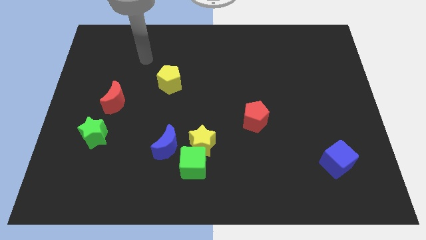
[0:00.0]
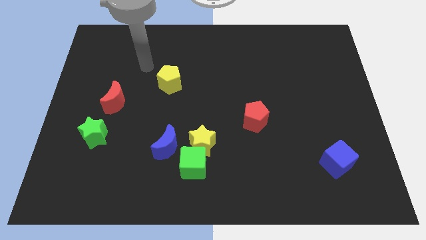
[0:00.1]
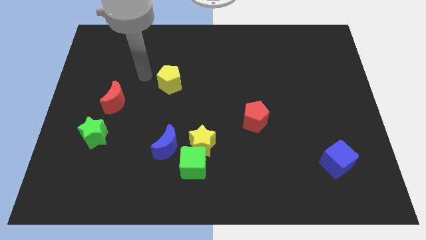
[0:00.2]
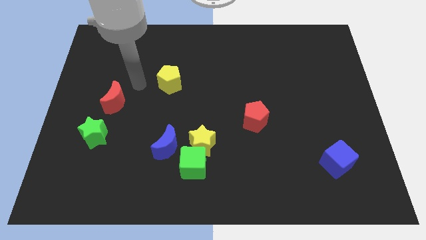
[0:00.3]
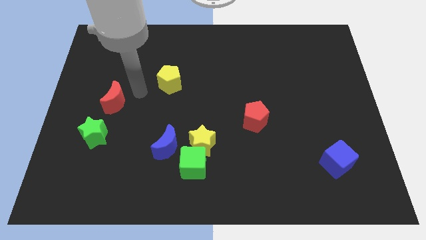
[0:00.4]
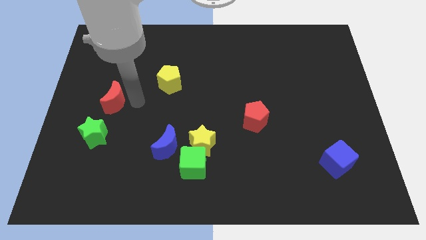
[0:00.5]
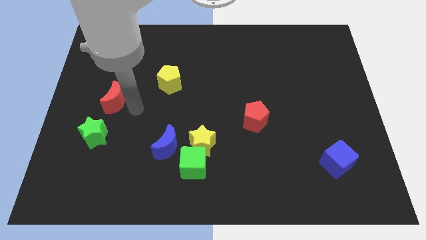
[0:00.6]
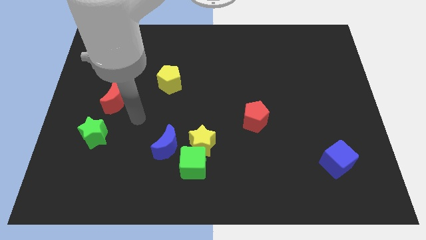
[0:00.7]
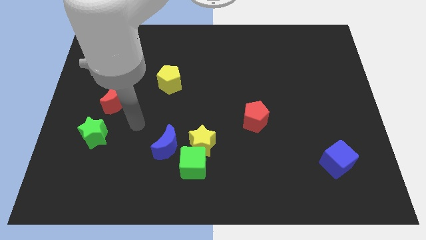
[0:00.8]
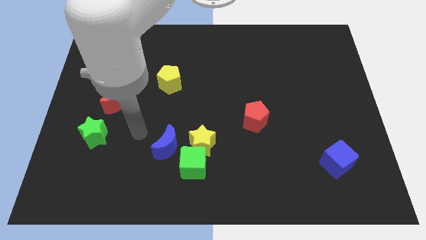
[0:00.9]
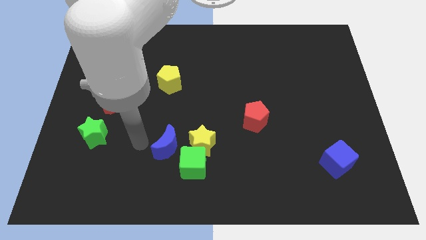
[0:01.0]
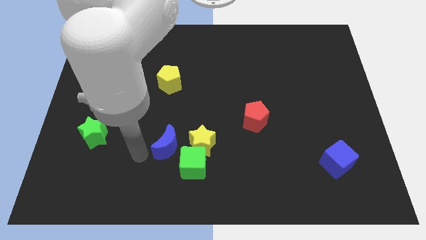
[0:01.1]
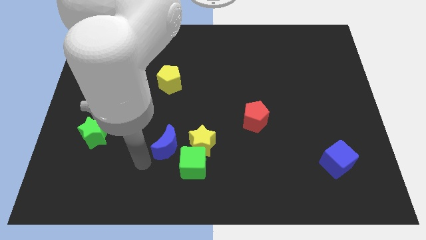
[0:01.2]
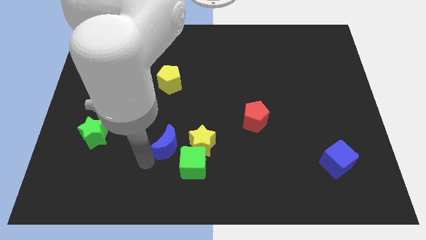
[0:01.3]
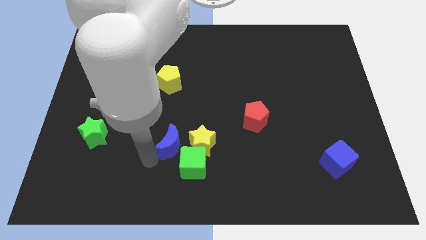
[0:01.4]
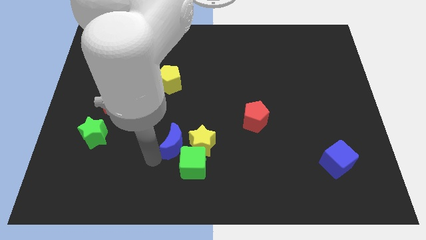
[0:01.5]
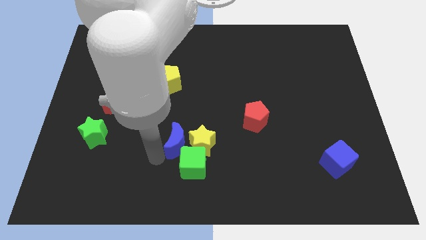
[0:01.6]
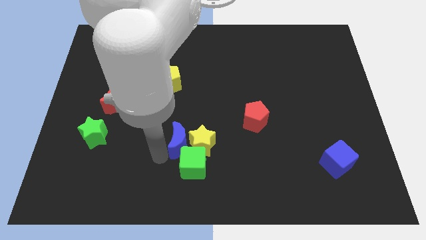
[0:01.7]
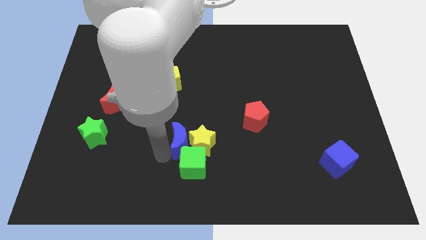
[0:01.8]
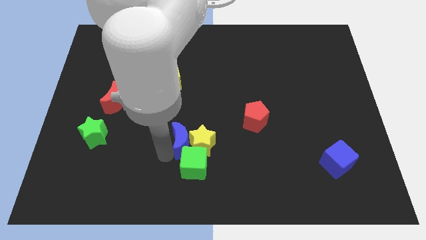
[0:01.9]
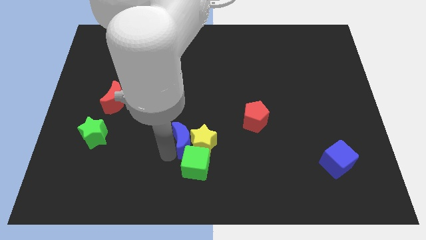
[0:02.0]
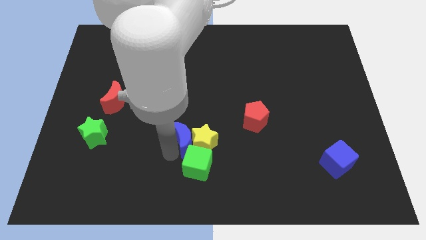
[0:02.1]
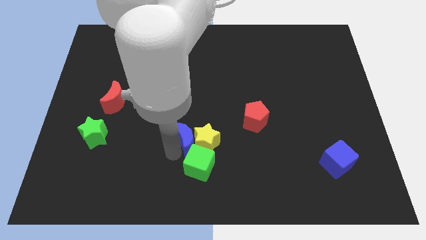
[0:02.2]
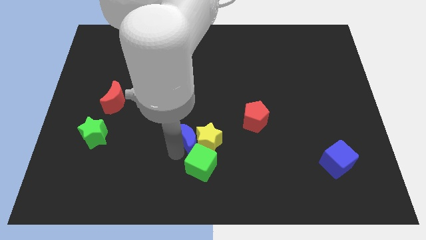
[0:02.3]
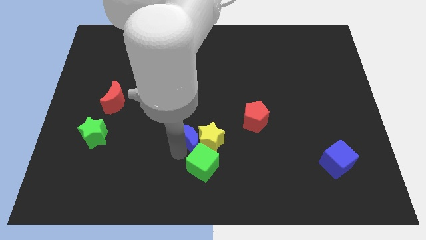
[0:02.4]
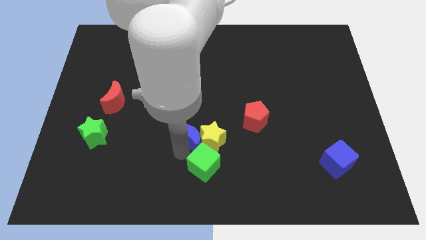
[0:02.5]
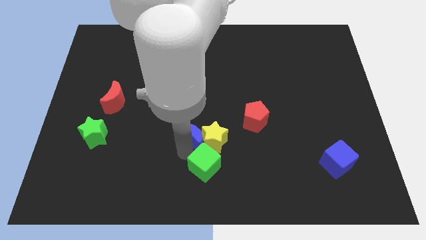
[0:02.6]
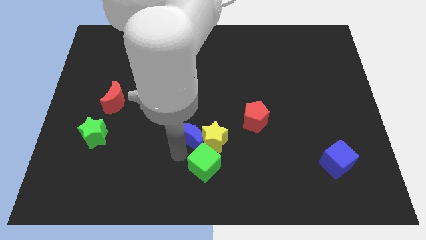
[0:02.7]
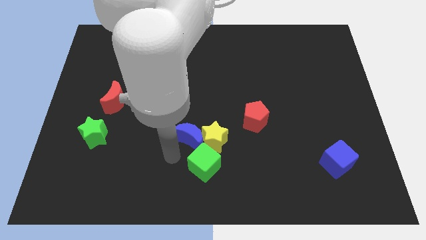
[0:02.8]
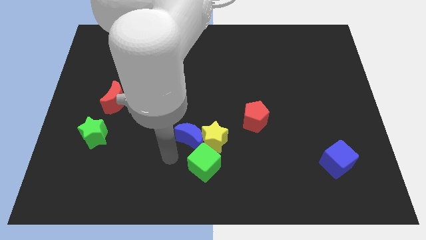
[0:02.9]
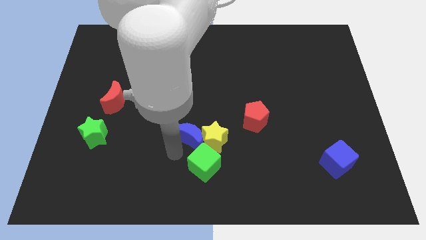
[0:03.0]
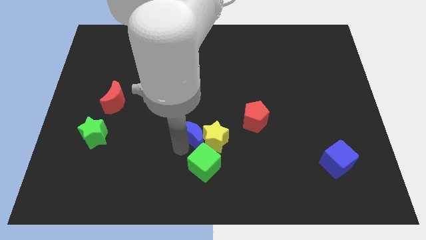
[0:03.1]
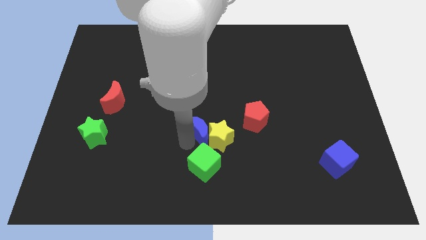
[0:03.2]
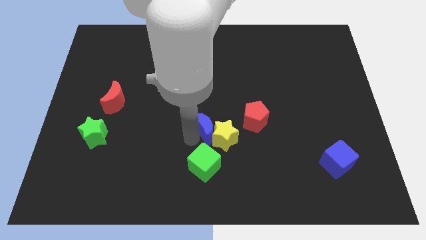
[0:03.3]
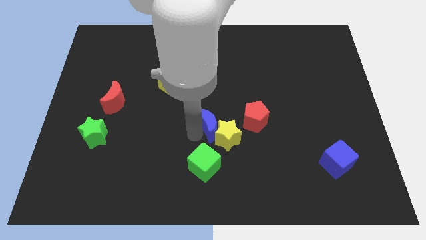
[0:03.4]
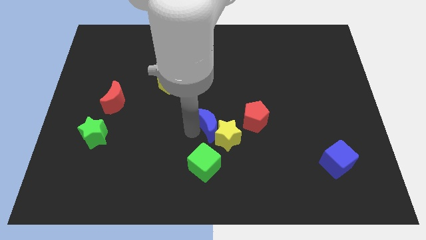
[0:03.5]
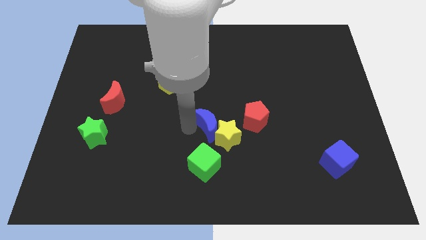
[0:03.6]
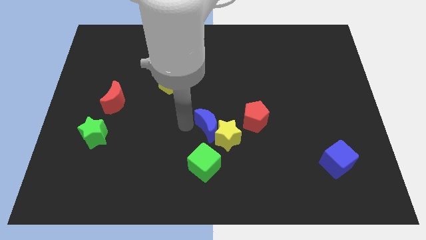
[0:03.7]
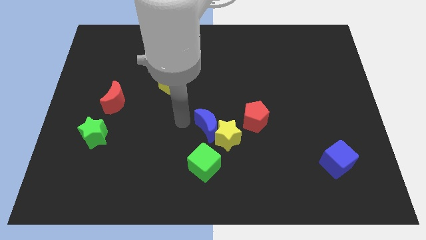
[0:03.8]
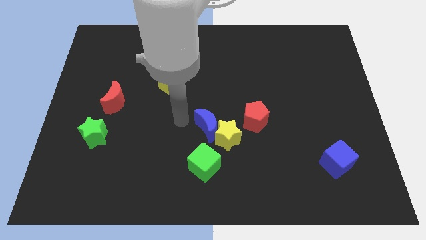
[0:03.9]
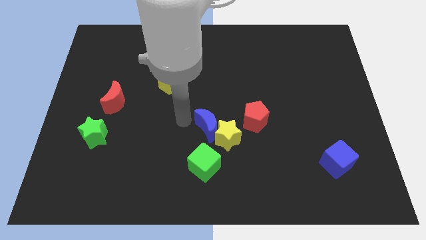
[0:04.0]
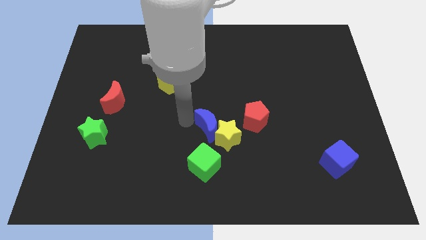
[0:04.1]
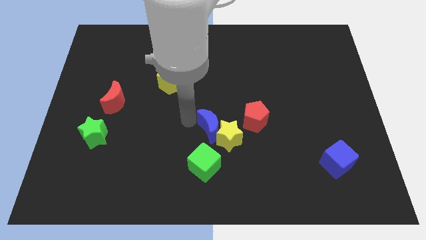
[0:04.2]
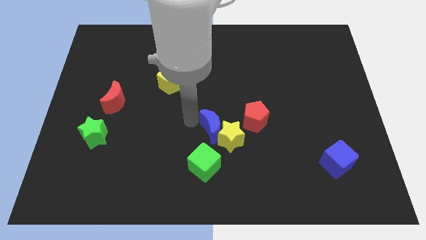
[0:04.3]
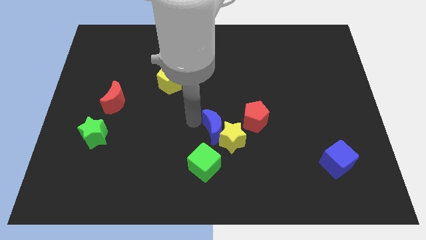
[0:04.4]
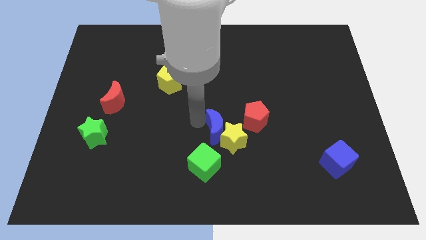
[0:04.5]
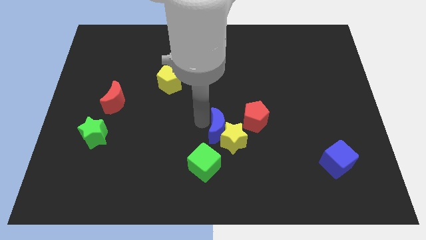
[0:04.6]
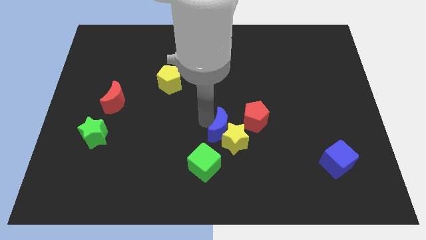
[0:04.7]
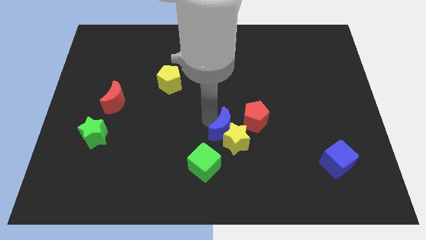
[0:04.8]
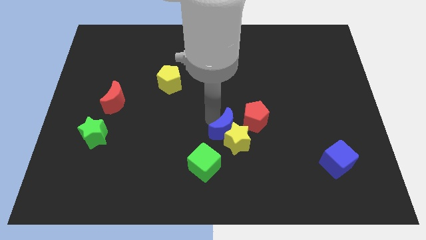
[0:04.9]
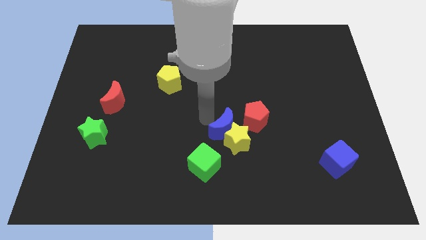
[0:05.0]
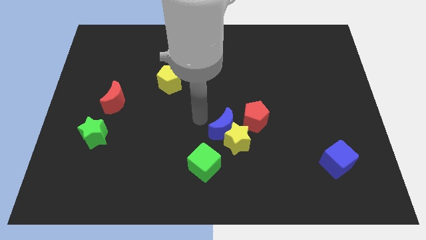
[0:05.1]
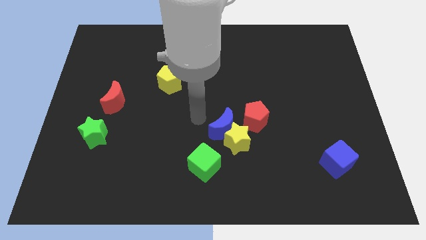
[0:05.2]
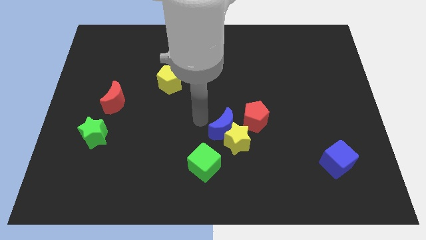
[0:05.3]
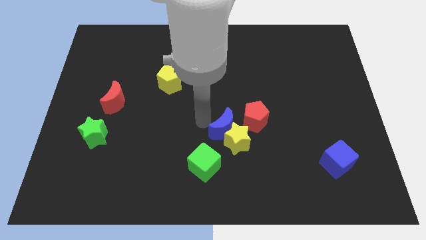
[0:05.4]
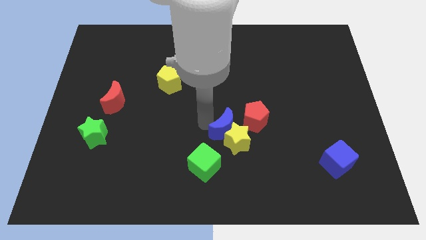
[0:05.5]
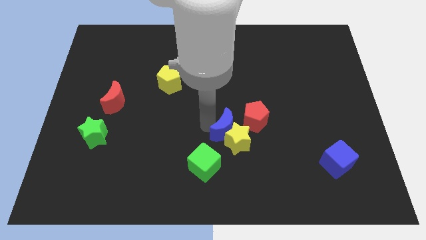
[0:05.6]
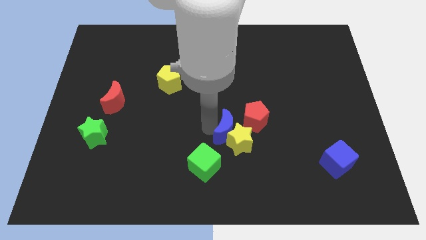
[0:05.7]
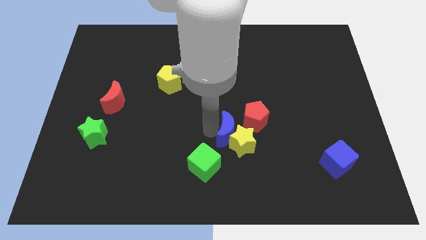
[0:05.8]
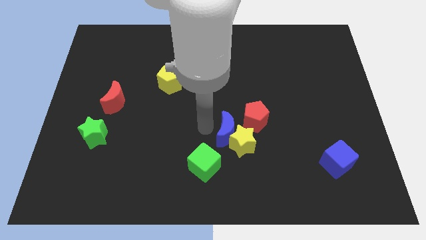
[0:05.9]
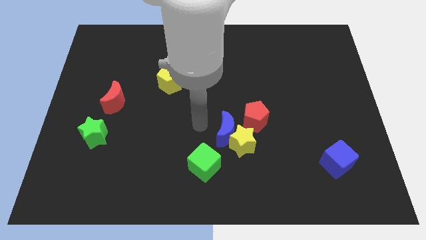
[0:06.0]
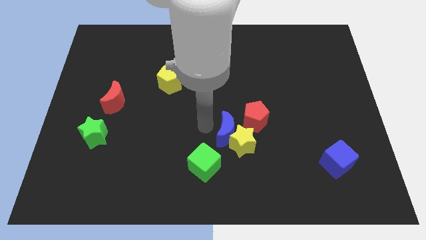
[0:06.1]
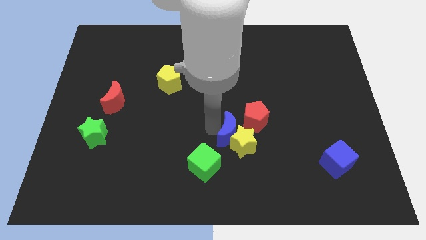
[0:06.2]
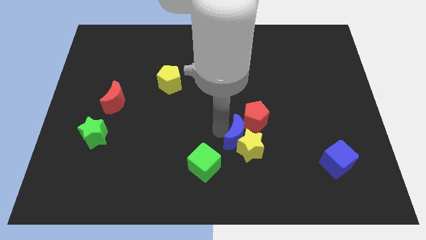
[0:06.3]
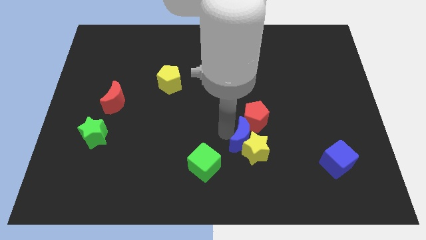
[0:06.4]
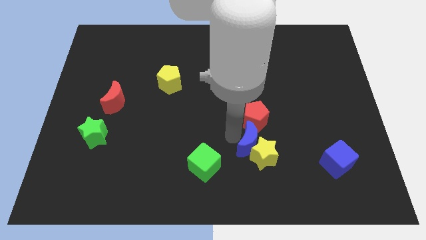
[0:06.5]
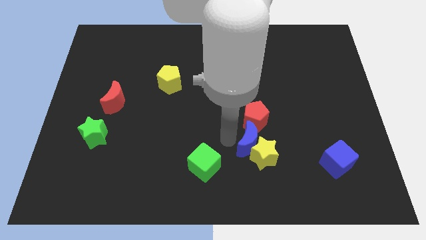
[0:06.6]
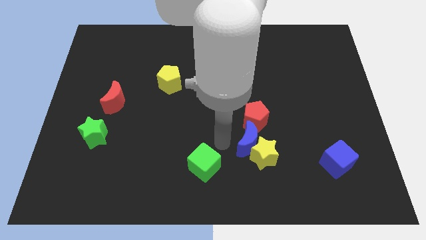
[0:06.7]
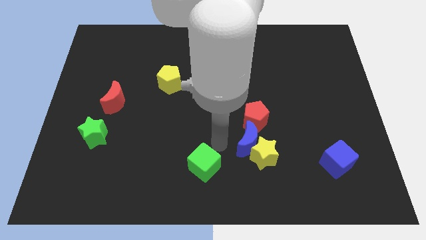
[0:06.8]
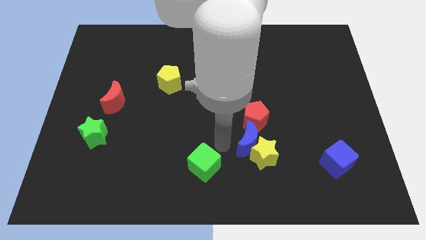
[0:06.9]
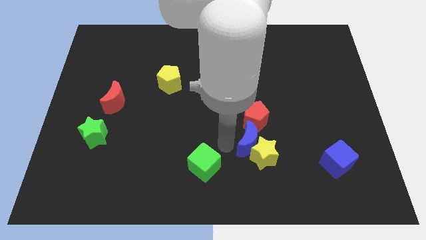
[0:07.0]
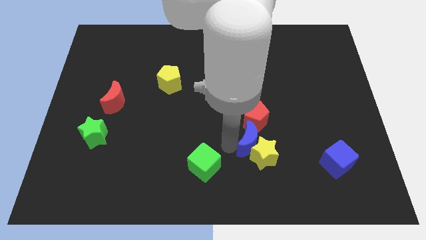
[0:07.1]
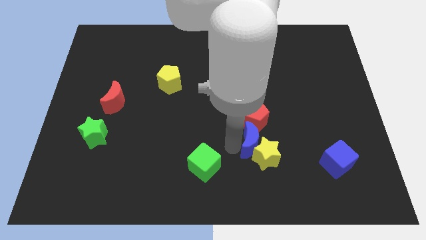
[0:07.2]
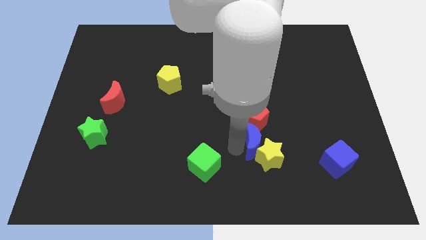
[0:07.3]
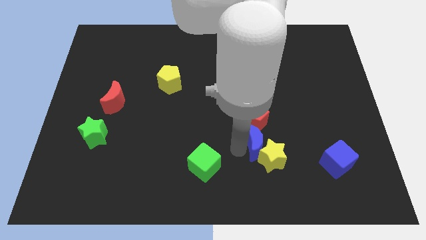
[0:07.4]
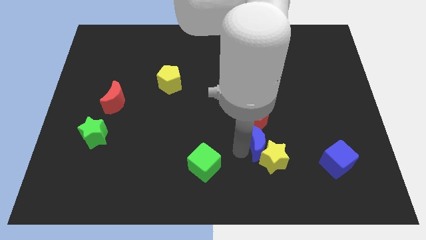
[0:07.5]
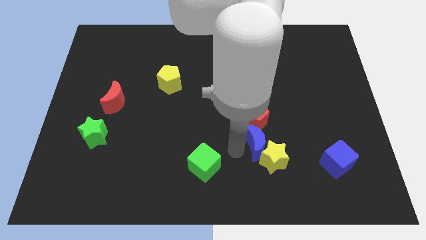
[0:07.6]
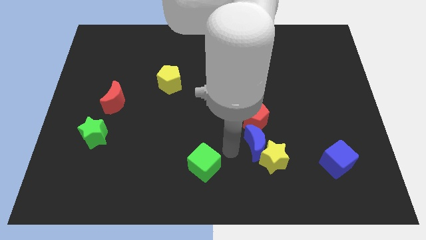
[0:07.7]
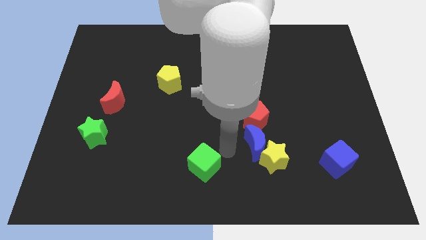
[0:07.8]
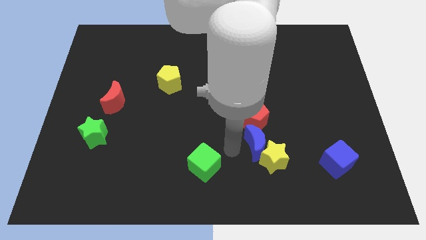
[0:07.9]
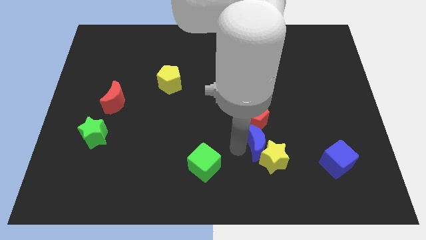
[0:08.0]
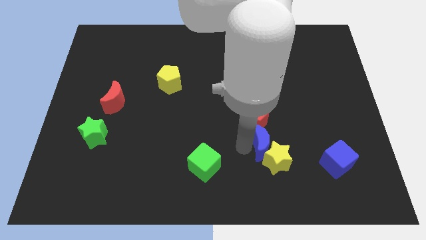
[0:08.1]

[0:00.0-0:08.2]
slide the blue moon right

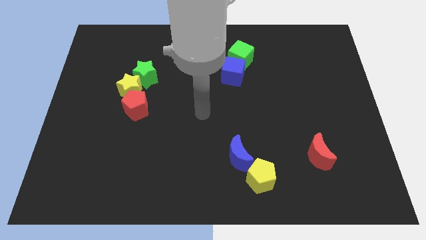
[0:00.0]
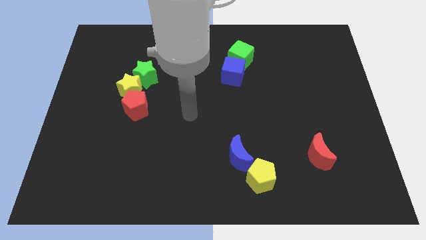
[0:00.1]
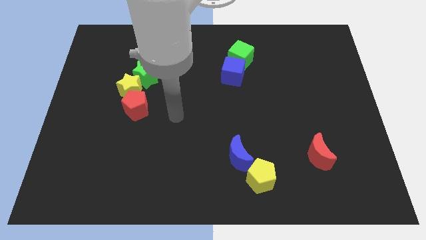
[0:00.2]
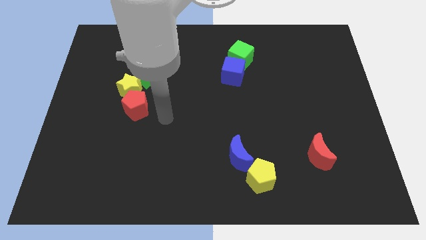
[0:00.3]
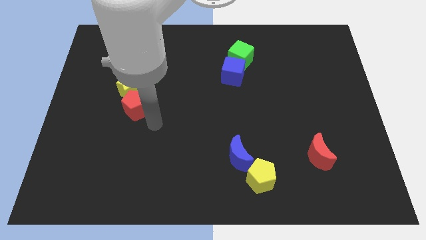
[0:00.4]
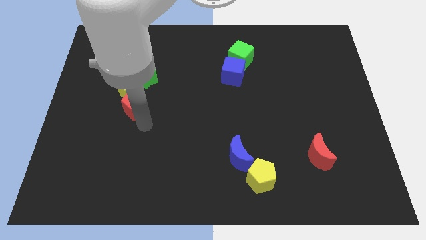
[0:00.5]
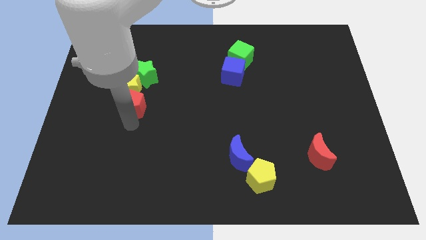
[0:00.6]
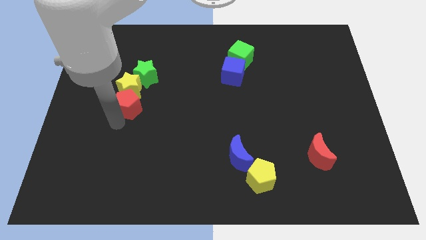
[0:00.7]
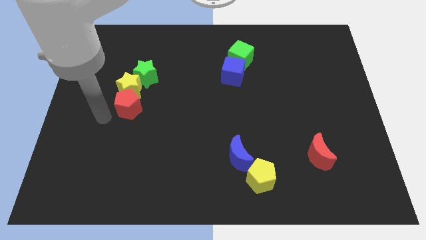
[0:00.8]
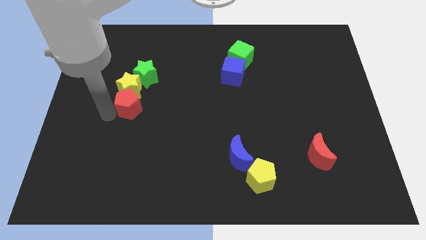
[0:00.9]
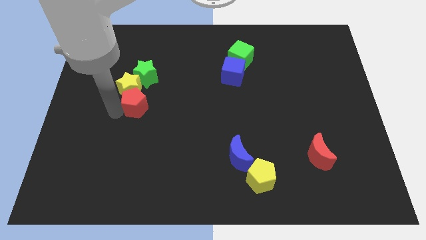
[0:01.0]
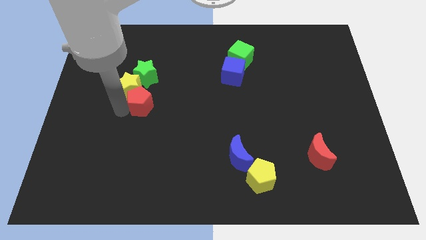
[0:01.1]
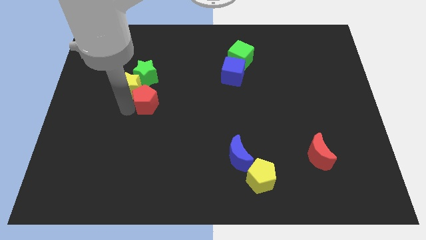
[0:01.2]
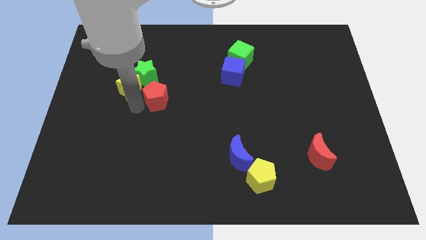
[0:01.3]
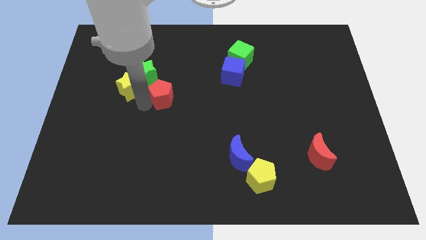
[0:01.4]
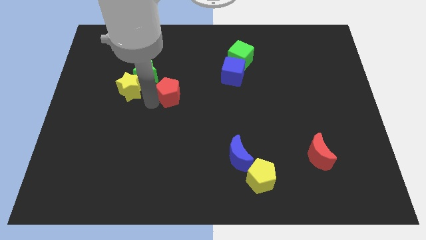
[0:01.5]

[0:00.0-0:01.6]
slightly move the red pentagon upwards and then right
